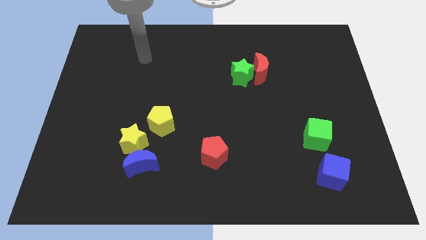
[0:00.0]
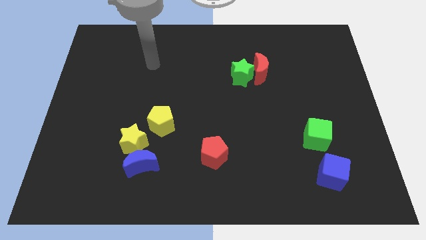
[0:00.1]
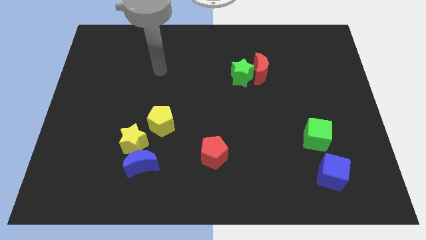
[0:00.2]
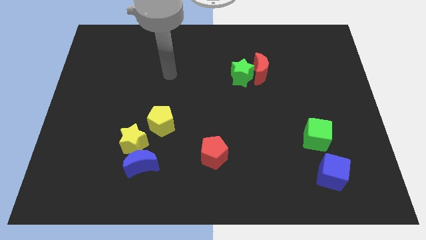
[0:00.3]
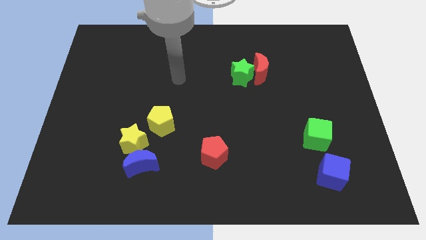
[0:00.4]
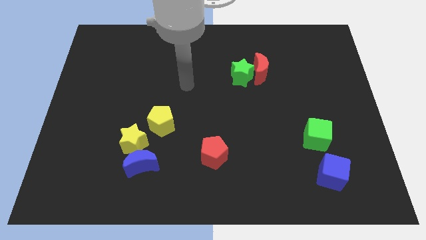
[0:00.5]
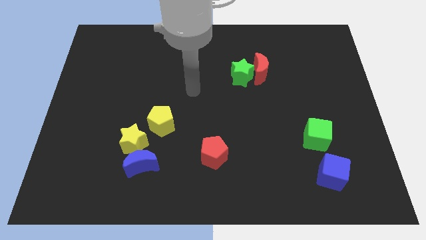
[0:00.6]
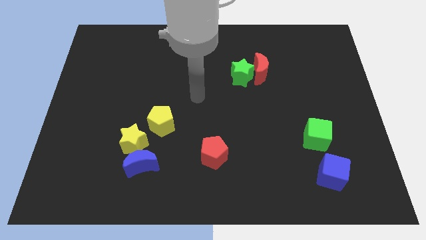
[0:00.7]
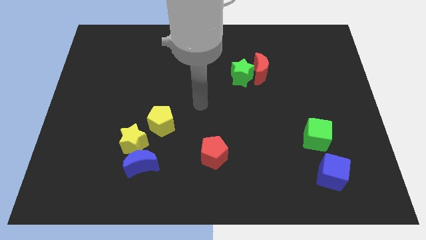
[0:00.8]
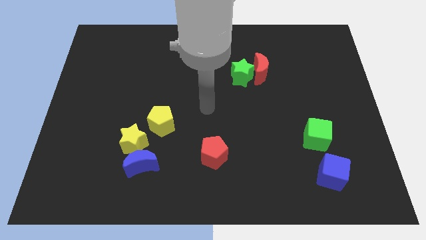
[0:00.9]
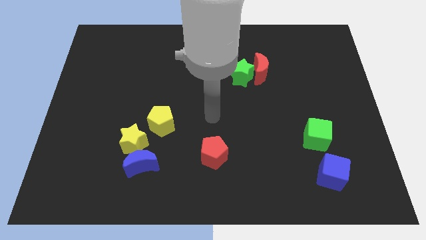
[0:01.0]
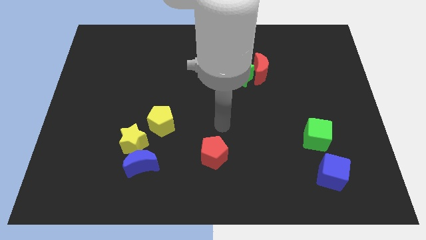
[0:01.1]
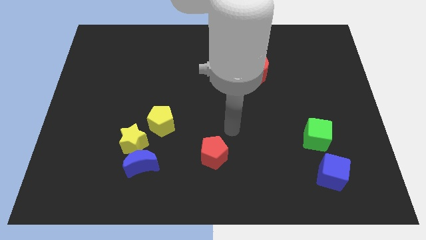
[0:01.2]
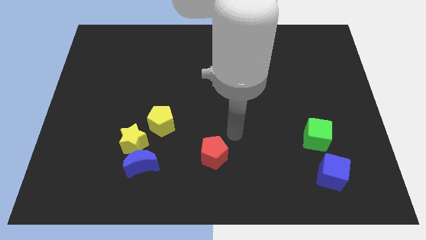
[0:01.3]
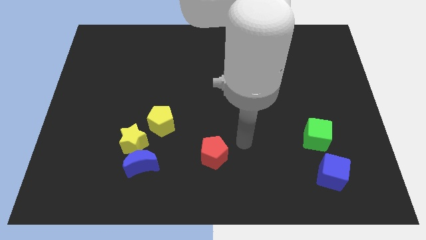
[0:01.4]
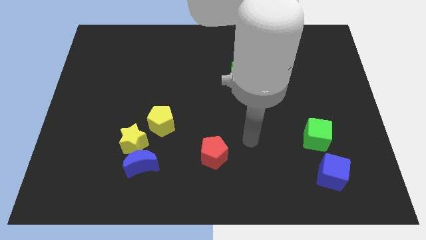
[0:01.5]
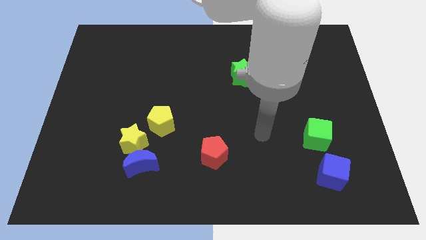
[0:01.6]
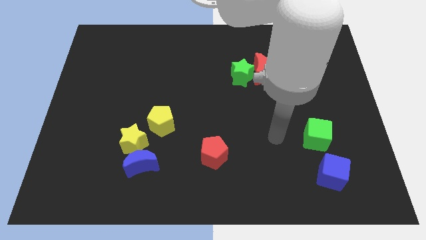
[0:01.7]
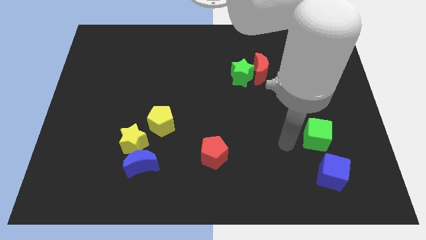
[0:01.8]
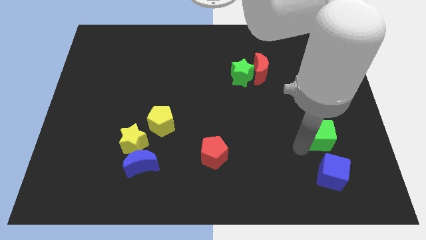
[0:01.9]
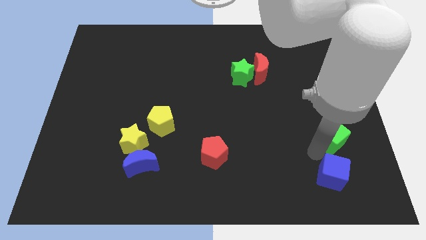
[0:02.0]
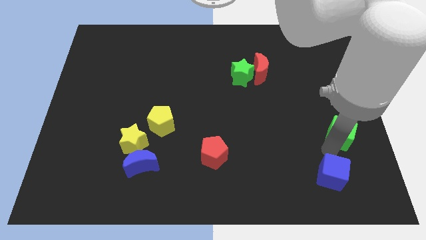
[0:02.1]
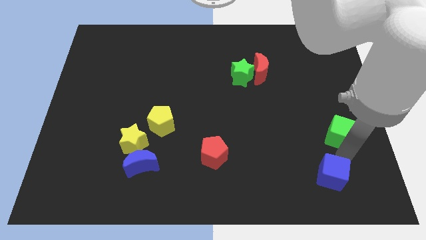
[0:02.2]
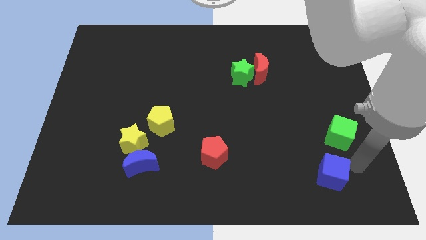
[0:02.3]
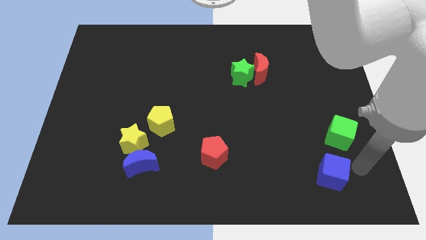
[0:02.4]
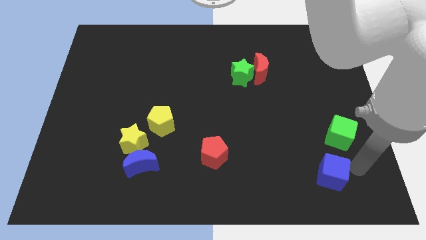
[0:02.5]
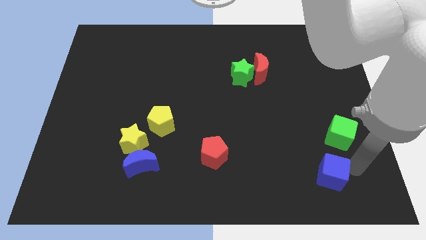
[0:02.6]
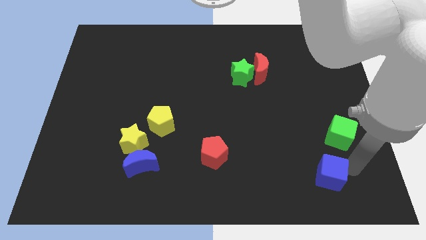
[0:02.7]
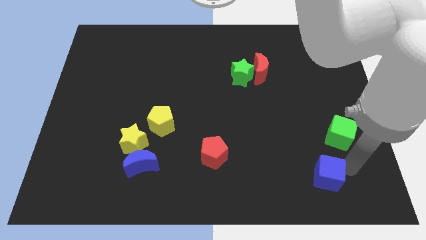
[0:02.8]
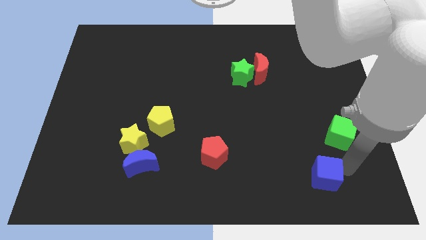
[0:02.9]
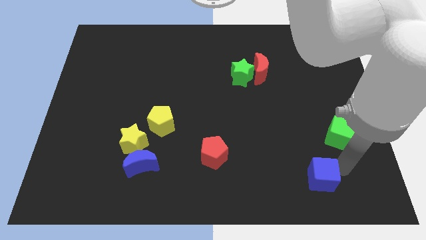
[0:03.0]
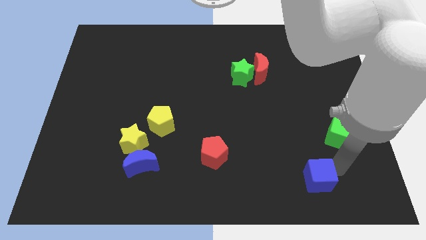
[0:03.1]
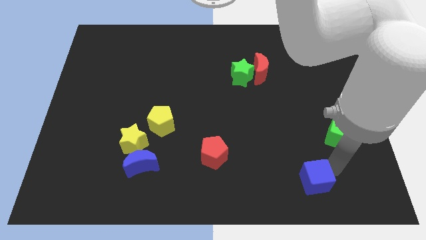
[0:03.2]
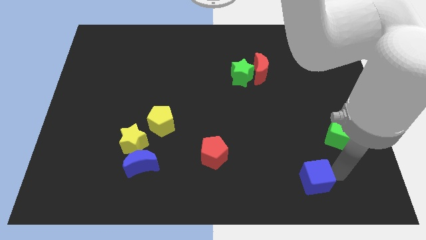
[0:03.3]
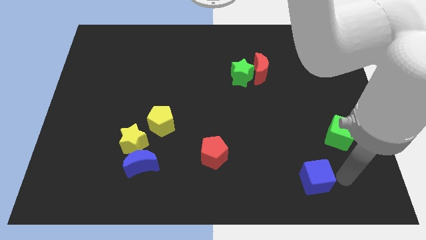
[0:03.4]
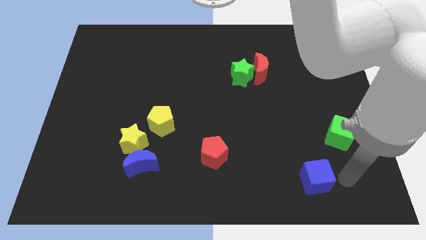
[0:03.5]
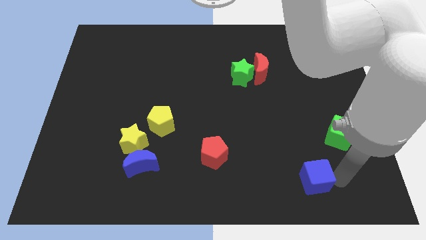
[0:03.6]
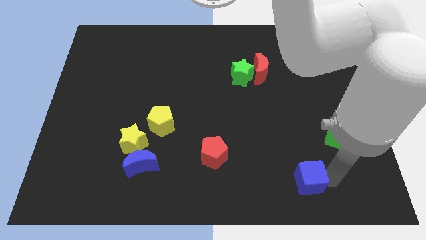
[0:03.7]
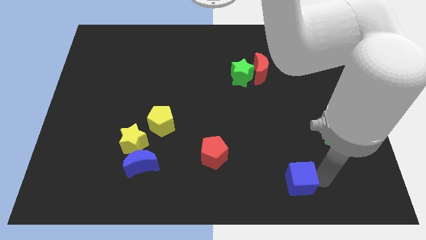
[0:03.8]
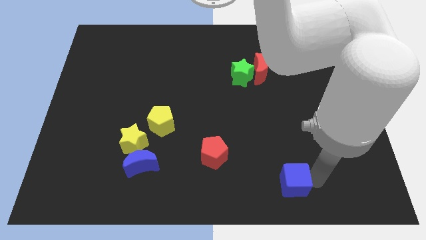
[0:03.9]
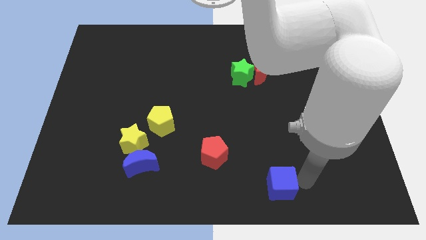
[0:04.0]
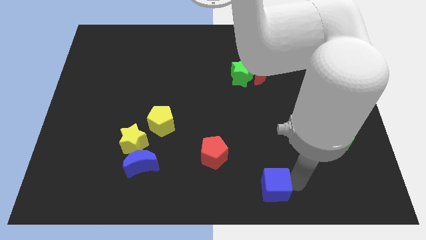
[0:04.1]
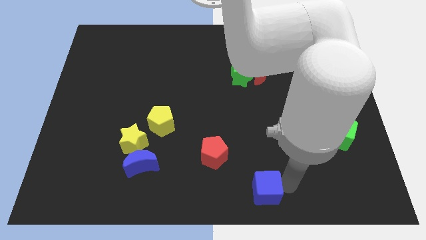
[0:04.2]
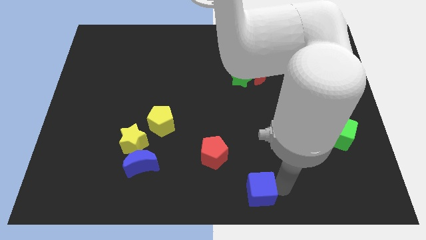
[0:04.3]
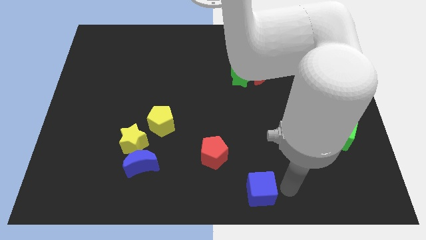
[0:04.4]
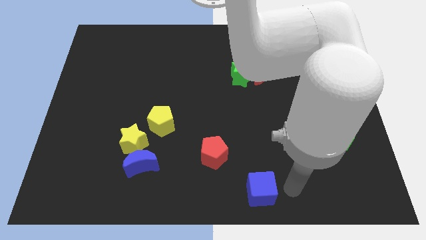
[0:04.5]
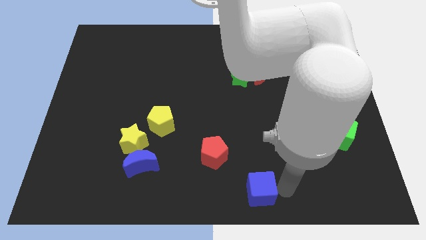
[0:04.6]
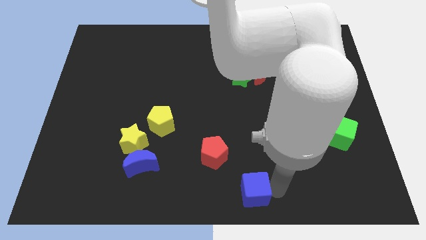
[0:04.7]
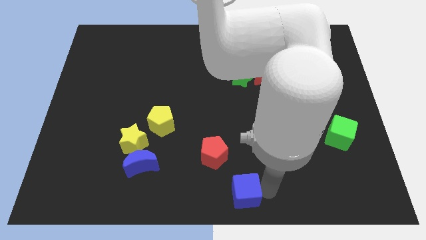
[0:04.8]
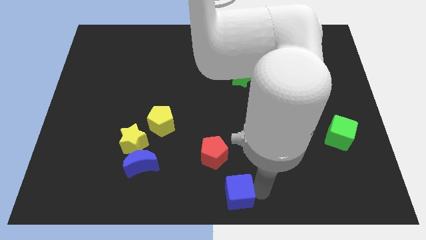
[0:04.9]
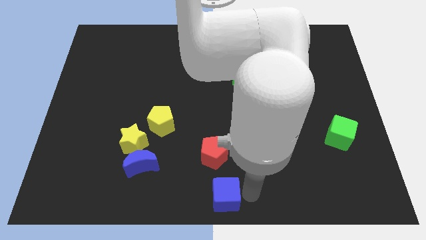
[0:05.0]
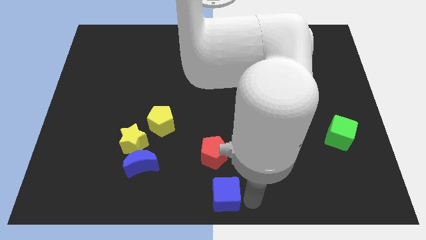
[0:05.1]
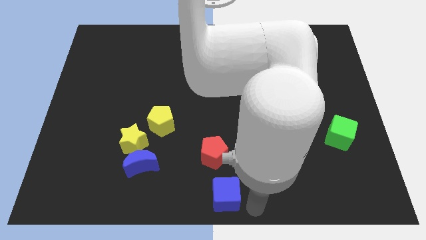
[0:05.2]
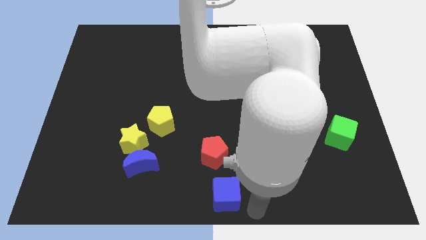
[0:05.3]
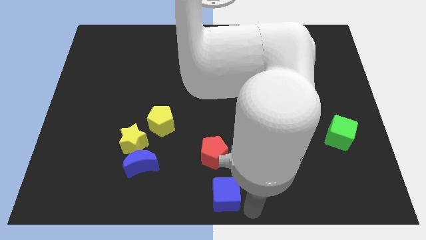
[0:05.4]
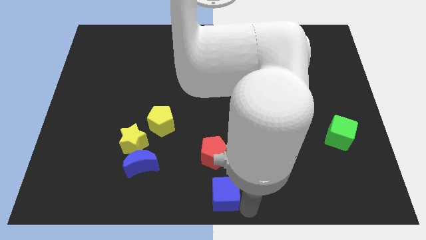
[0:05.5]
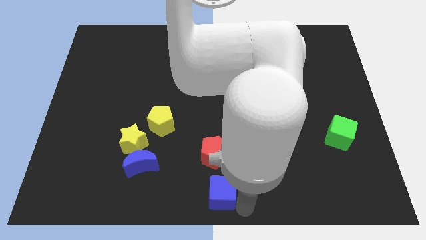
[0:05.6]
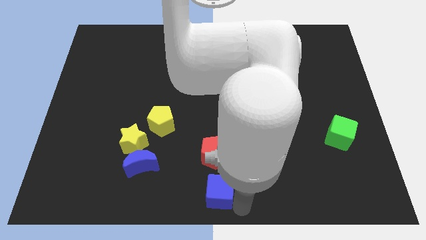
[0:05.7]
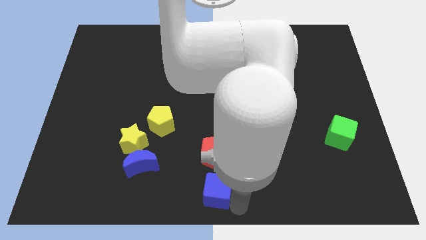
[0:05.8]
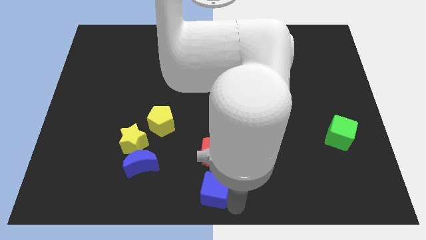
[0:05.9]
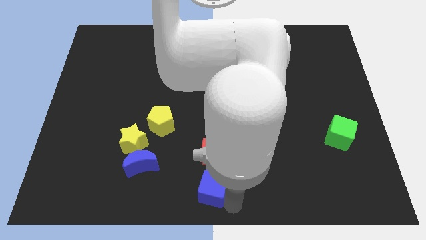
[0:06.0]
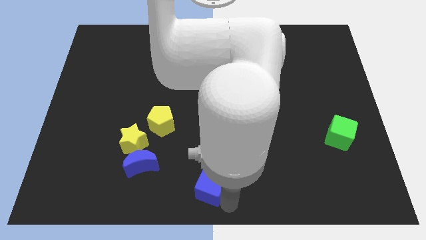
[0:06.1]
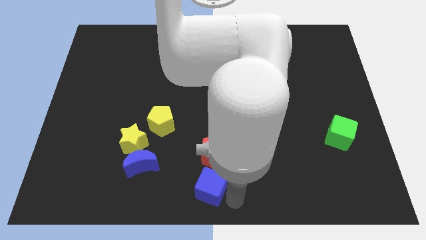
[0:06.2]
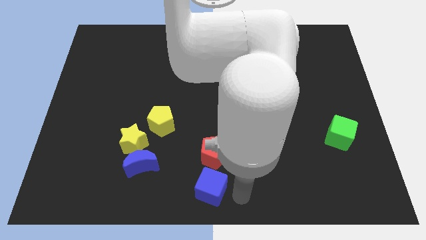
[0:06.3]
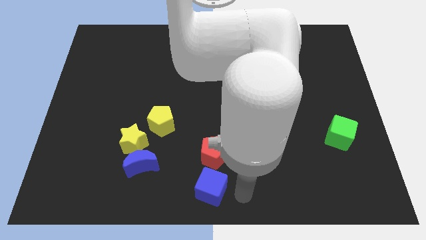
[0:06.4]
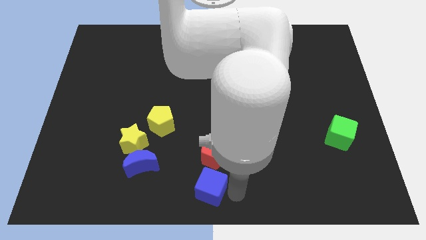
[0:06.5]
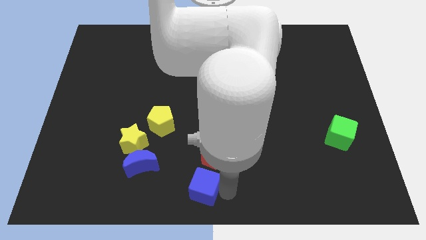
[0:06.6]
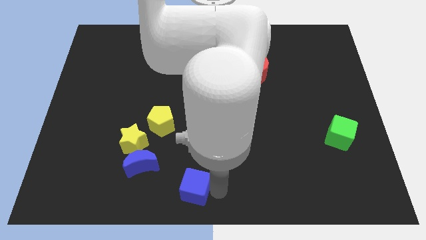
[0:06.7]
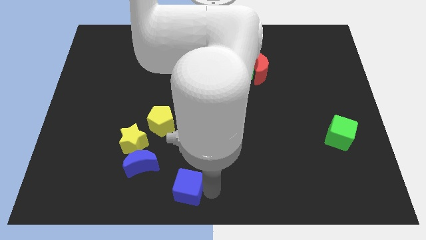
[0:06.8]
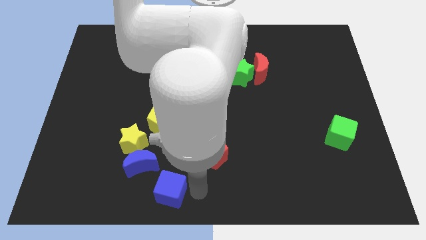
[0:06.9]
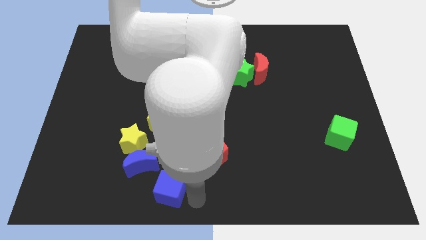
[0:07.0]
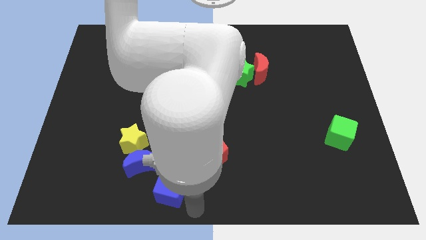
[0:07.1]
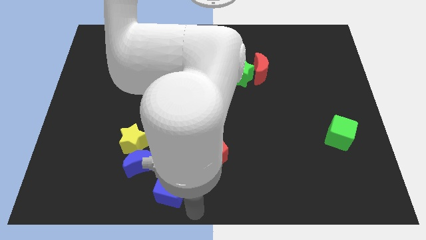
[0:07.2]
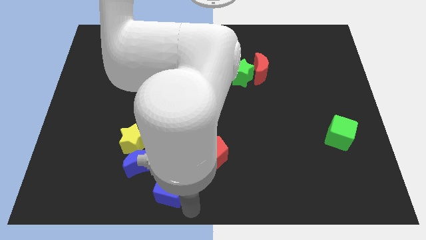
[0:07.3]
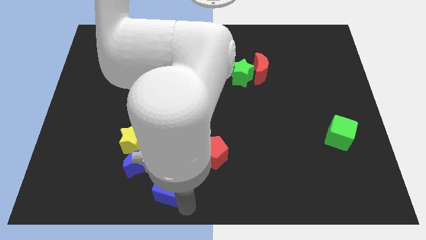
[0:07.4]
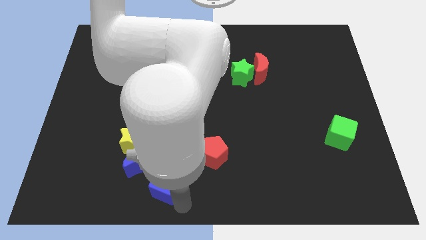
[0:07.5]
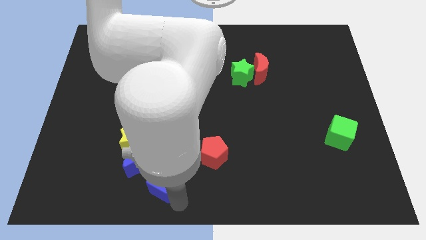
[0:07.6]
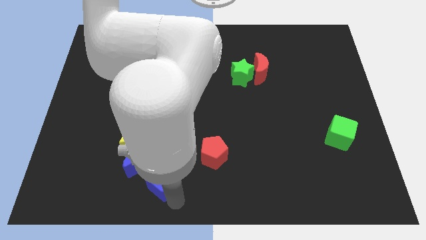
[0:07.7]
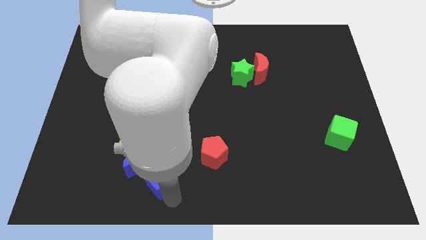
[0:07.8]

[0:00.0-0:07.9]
put the blue cube close to the blue moon
